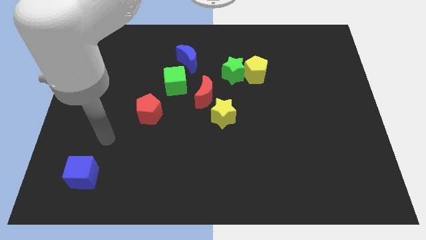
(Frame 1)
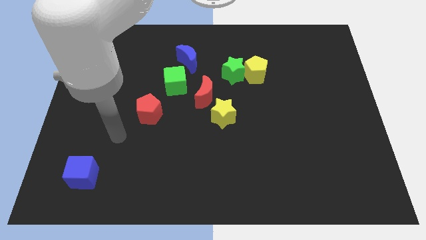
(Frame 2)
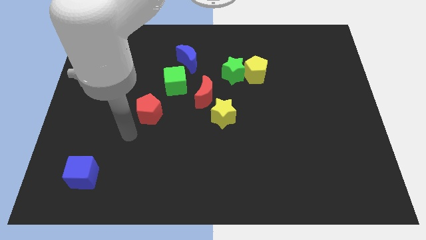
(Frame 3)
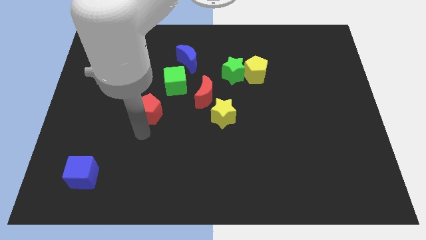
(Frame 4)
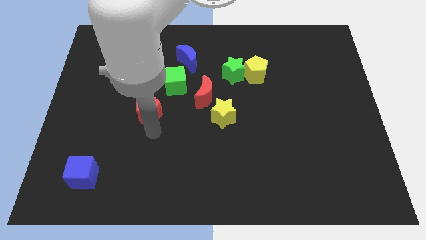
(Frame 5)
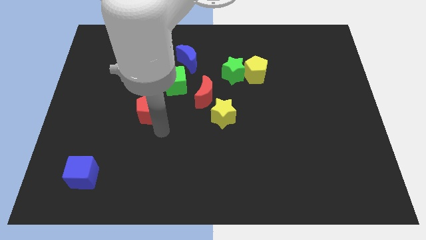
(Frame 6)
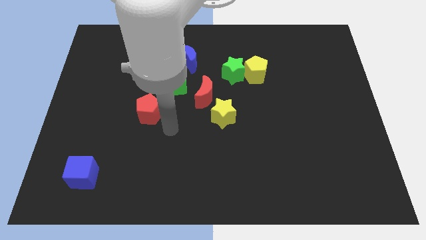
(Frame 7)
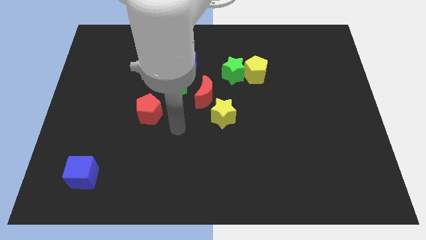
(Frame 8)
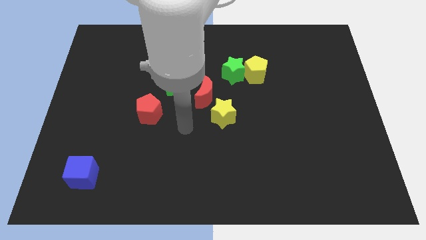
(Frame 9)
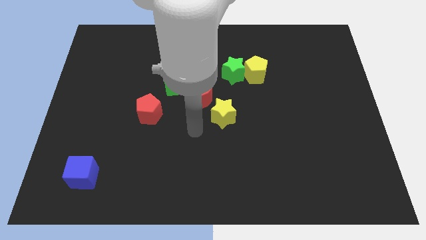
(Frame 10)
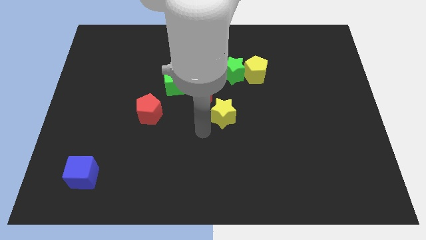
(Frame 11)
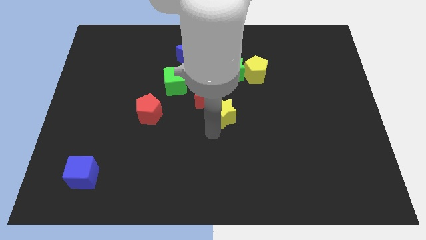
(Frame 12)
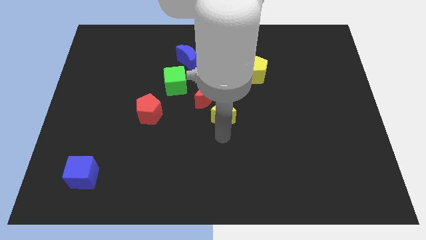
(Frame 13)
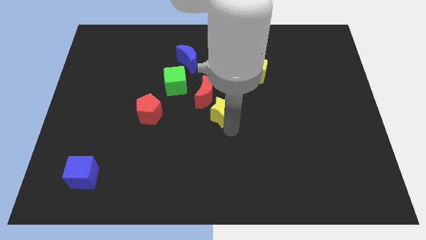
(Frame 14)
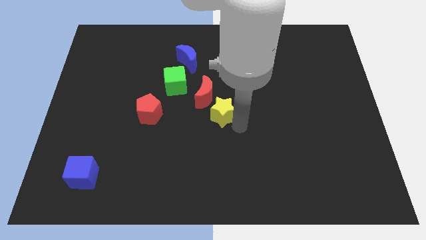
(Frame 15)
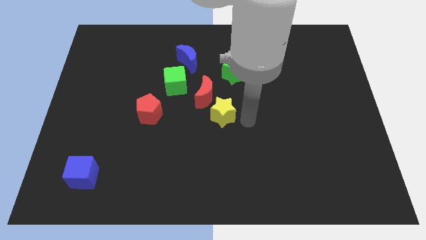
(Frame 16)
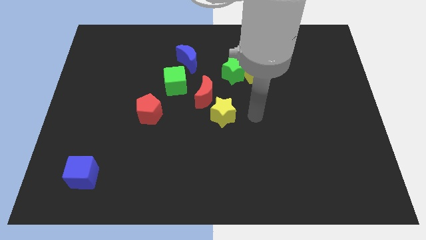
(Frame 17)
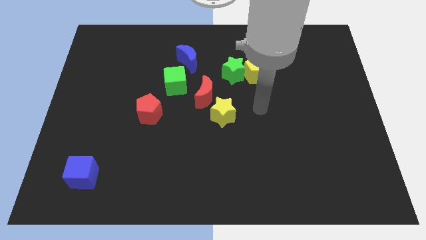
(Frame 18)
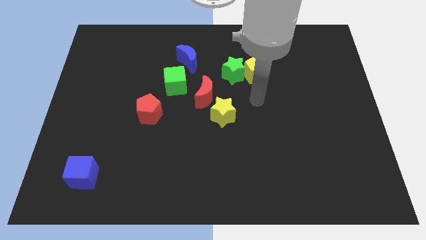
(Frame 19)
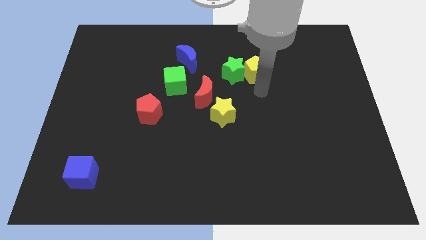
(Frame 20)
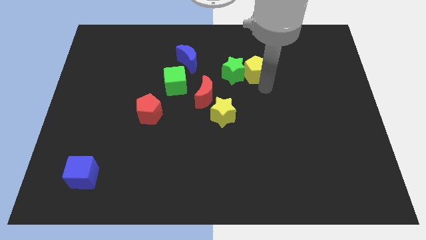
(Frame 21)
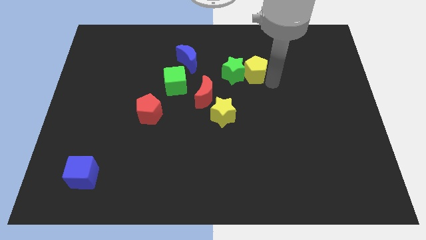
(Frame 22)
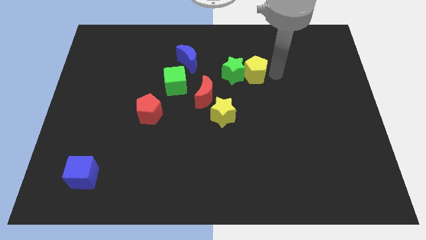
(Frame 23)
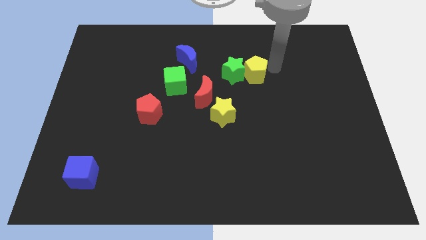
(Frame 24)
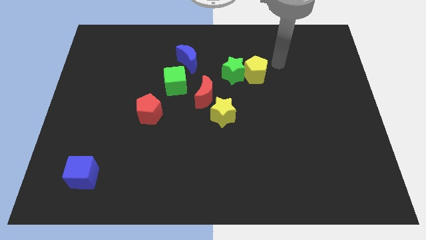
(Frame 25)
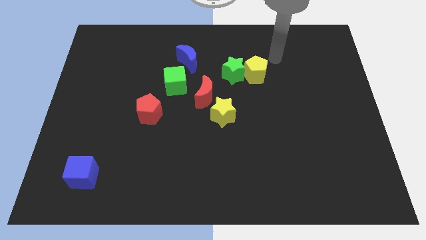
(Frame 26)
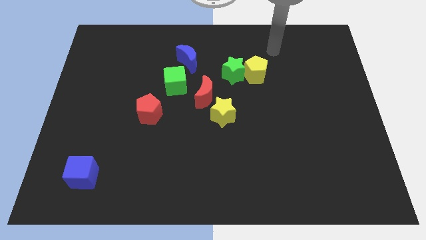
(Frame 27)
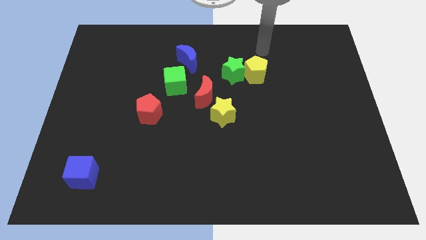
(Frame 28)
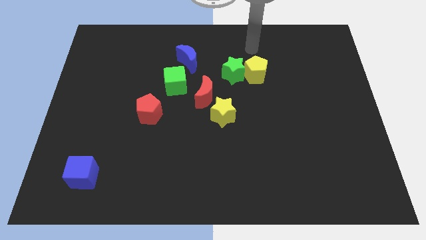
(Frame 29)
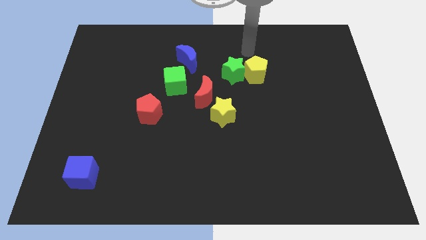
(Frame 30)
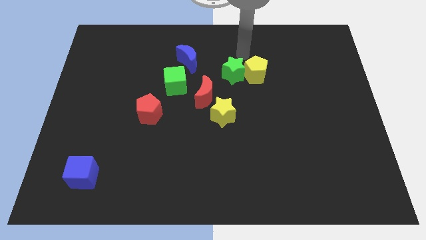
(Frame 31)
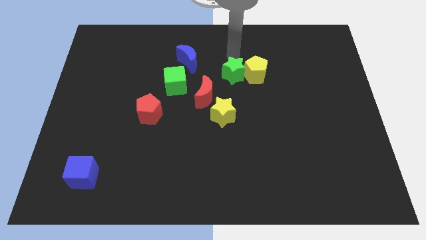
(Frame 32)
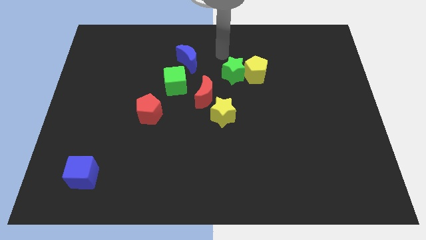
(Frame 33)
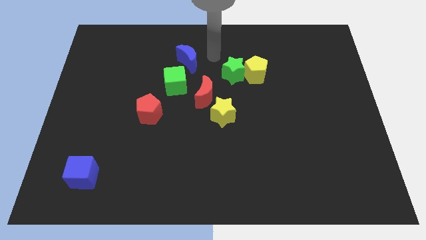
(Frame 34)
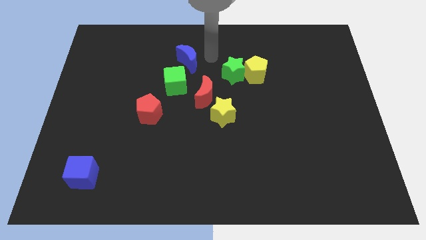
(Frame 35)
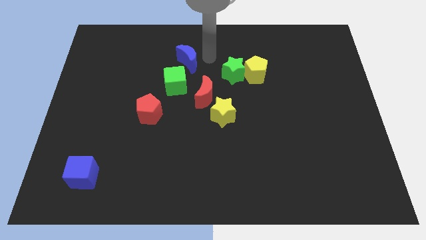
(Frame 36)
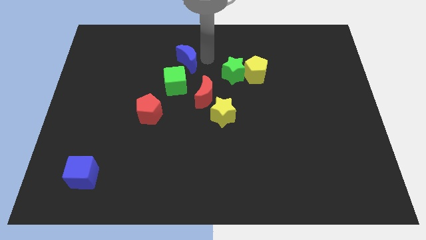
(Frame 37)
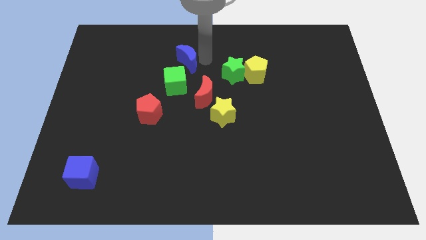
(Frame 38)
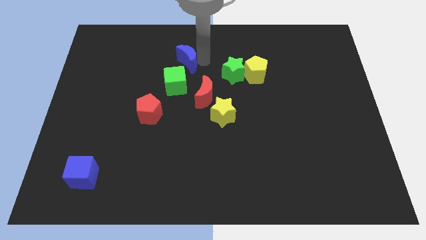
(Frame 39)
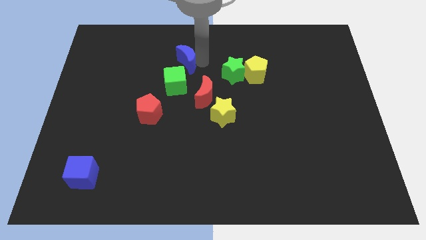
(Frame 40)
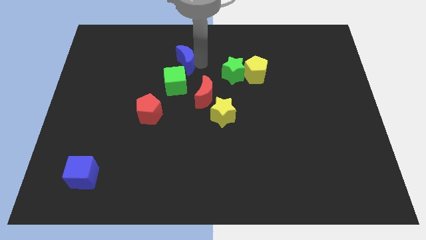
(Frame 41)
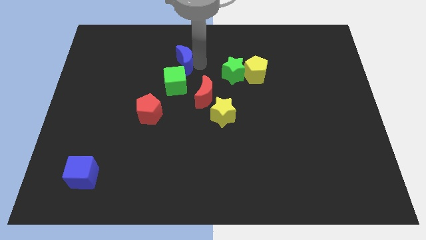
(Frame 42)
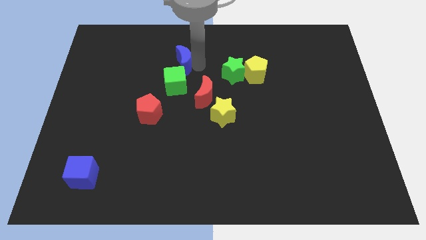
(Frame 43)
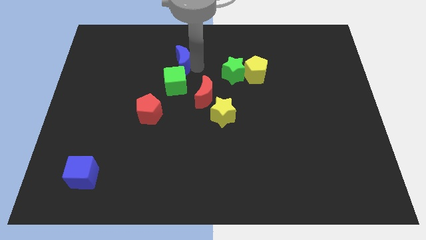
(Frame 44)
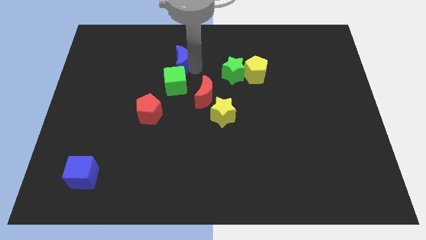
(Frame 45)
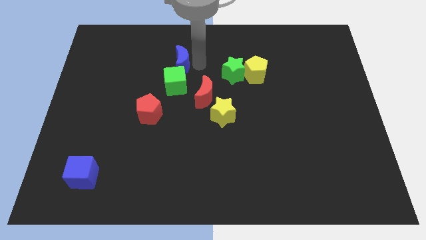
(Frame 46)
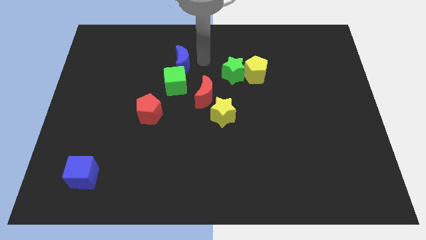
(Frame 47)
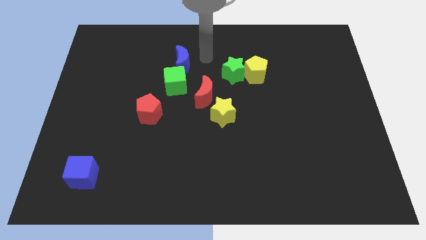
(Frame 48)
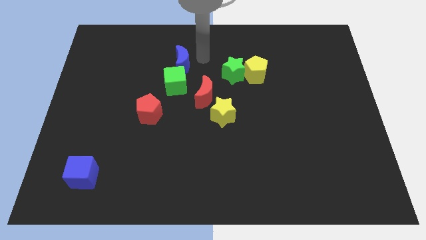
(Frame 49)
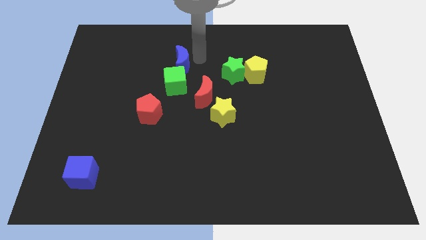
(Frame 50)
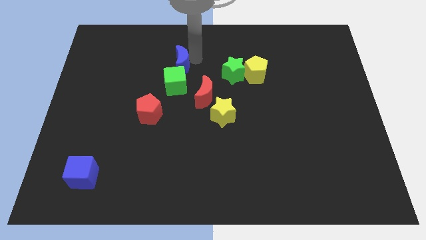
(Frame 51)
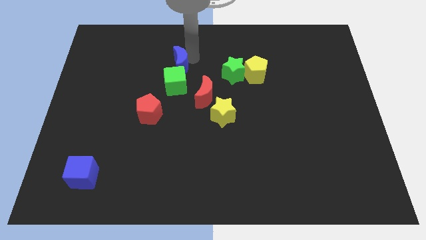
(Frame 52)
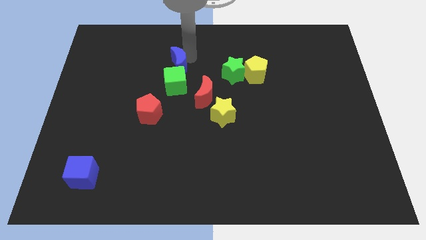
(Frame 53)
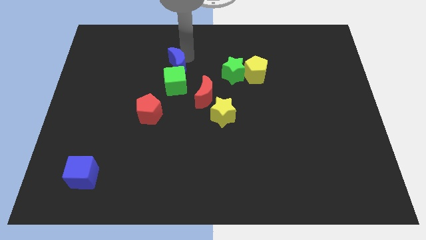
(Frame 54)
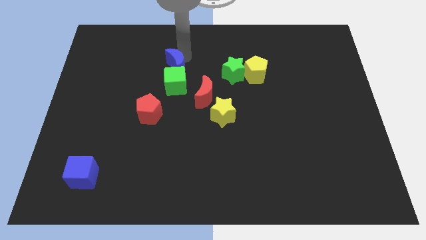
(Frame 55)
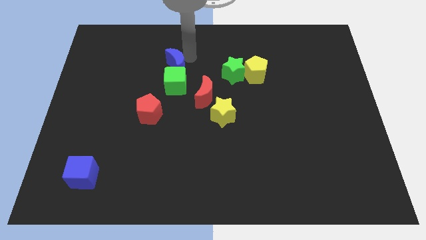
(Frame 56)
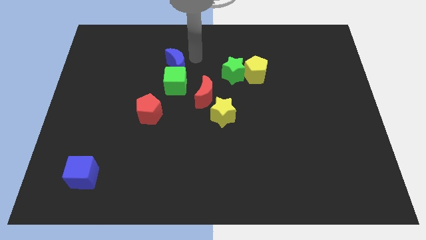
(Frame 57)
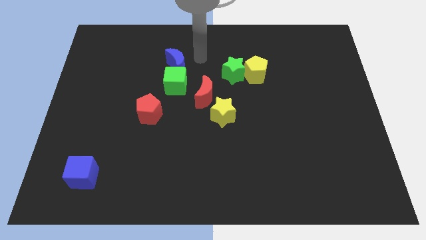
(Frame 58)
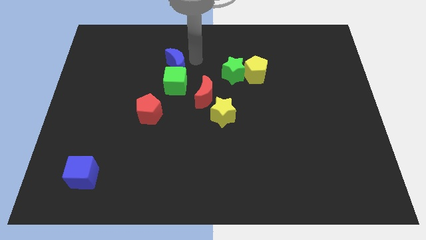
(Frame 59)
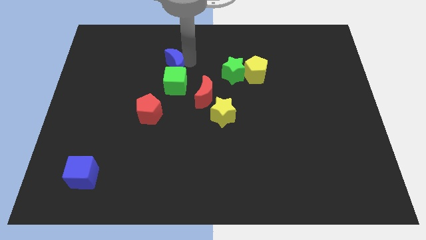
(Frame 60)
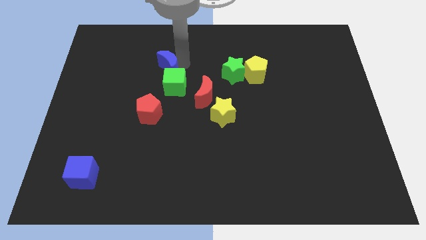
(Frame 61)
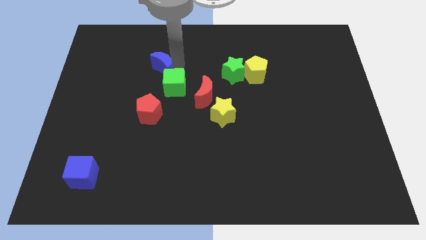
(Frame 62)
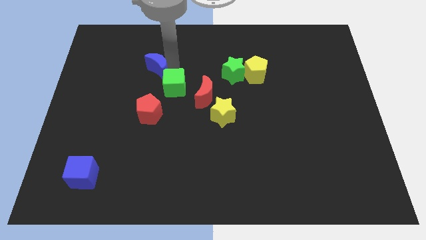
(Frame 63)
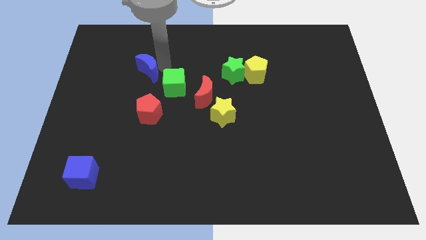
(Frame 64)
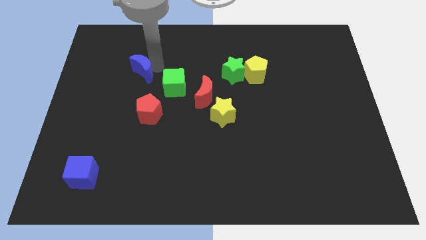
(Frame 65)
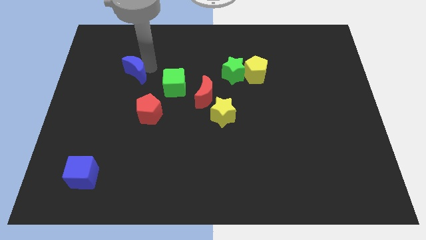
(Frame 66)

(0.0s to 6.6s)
slide the blue moon just left of the green cube

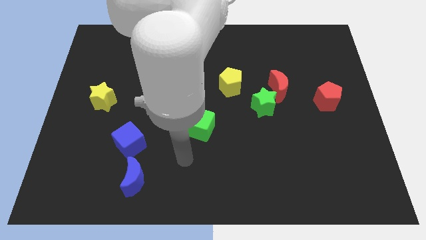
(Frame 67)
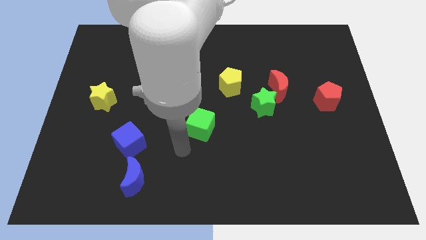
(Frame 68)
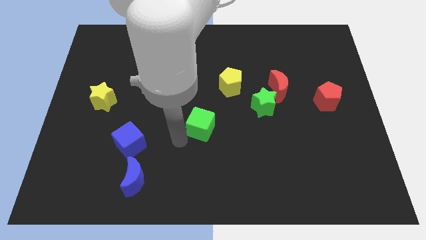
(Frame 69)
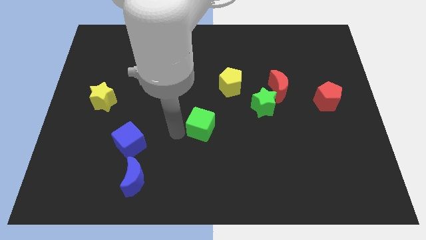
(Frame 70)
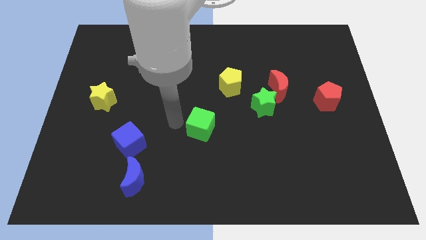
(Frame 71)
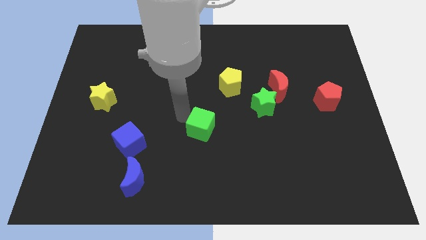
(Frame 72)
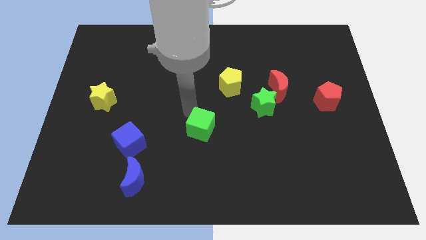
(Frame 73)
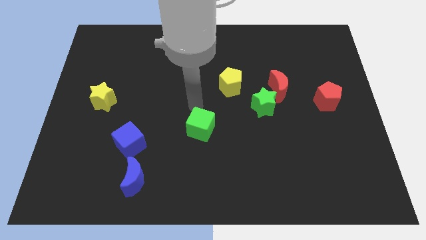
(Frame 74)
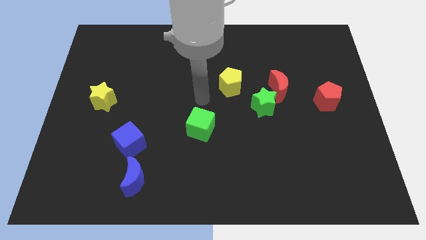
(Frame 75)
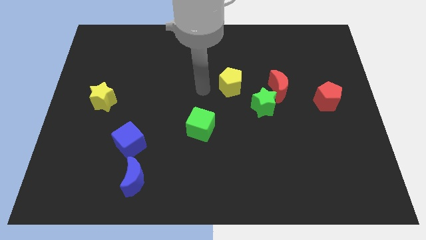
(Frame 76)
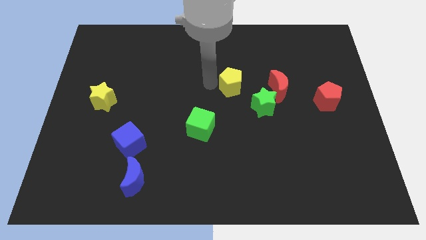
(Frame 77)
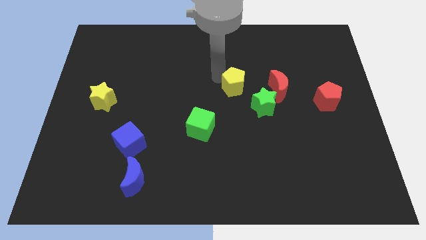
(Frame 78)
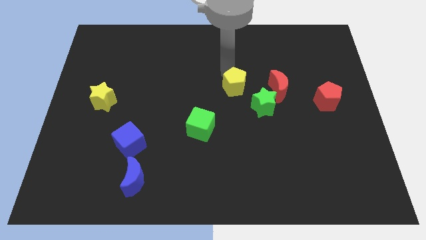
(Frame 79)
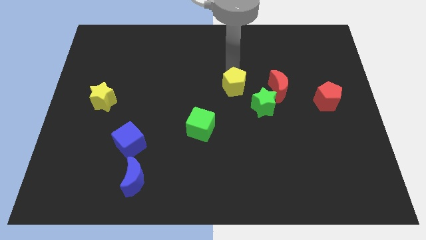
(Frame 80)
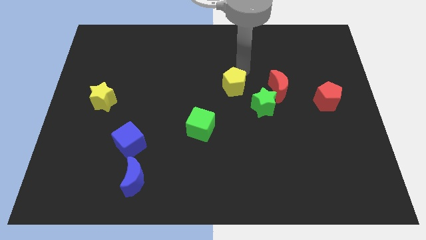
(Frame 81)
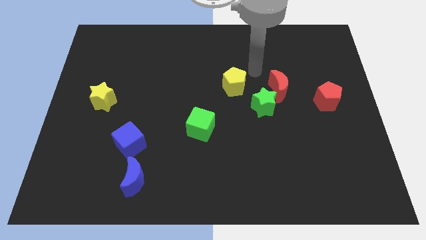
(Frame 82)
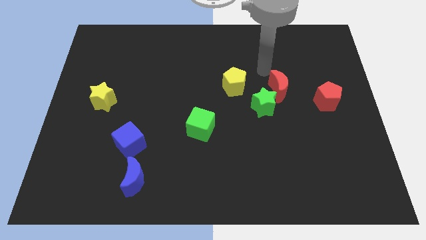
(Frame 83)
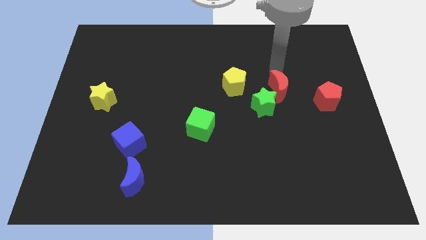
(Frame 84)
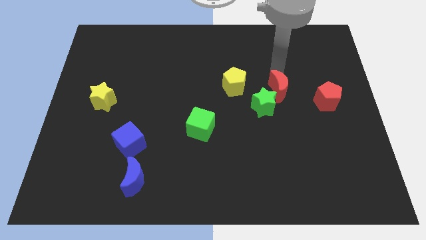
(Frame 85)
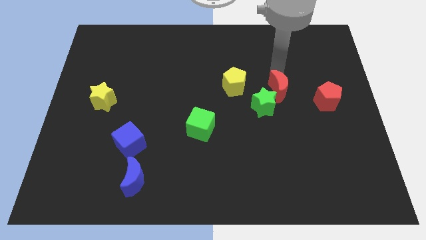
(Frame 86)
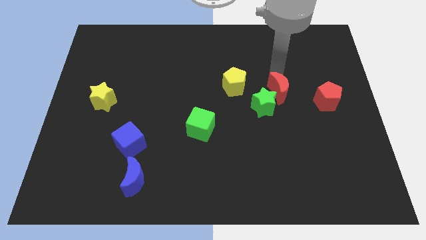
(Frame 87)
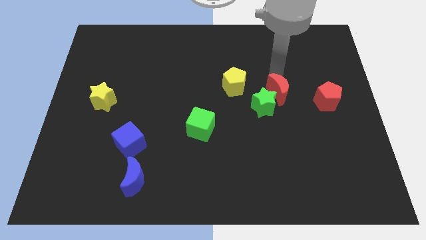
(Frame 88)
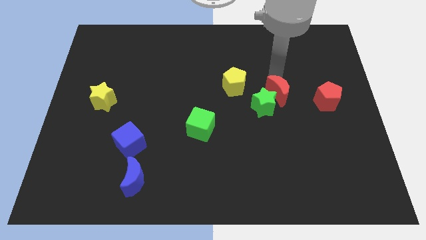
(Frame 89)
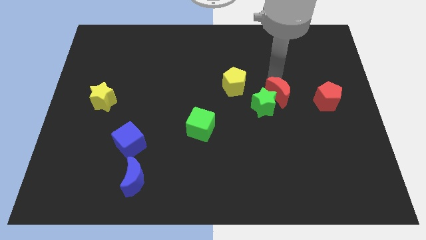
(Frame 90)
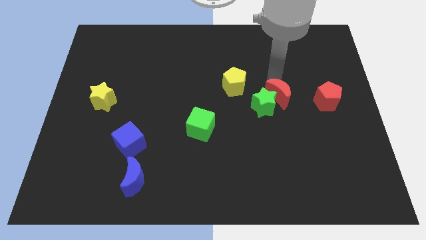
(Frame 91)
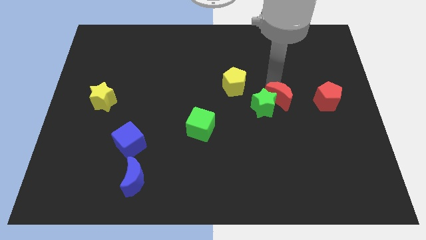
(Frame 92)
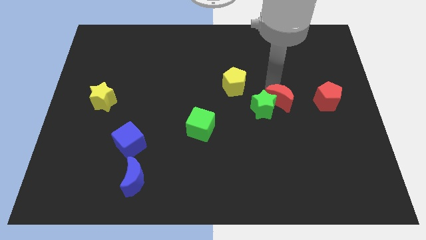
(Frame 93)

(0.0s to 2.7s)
slide the red moon to the bottom right of the green star
